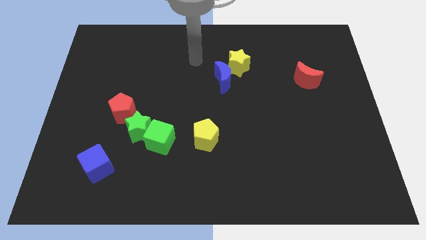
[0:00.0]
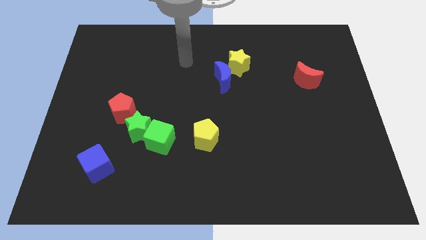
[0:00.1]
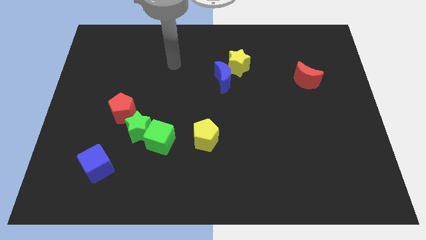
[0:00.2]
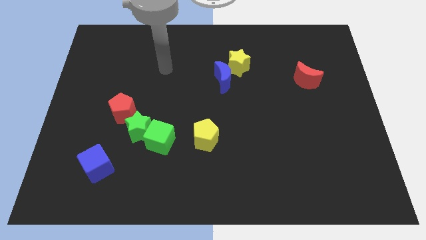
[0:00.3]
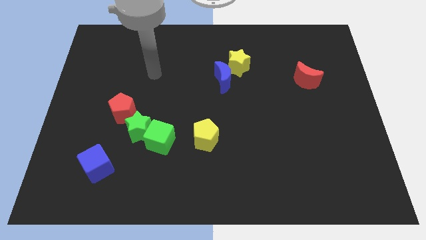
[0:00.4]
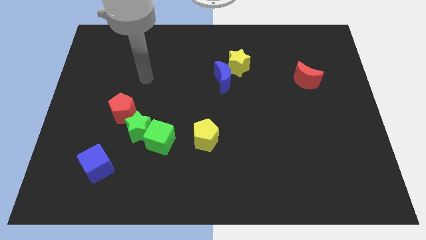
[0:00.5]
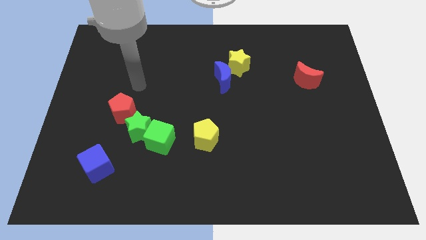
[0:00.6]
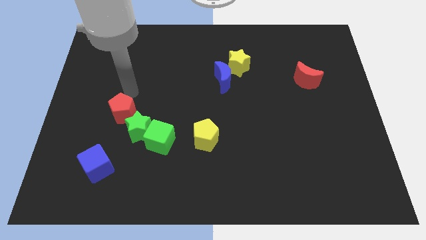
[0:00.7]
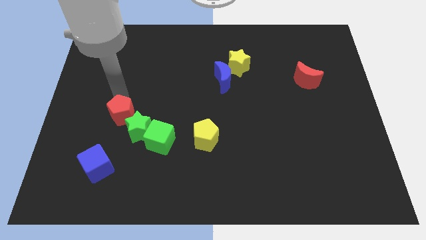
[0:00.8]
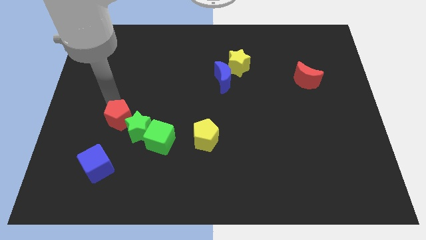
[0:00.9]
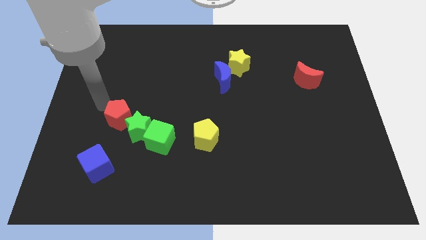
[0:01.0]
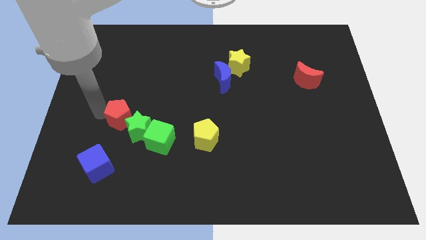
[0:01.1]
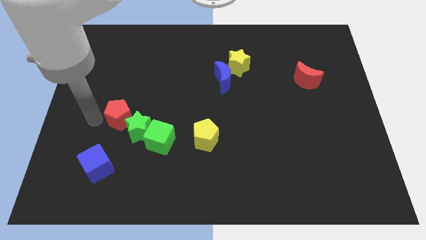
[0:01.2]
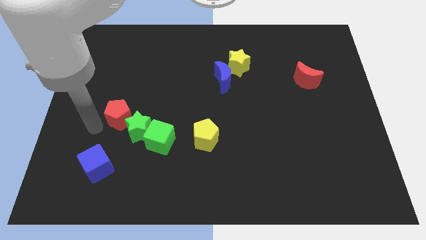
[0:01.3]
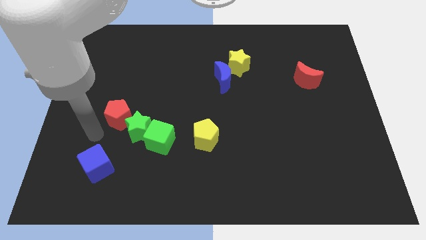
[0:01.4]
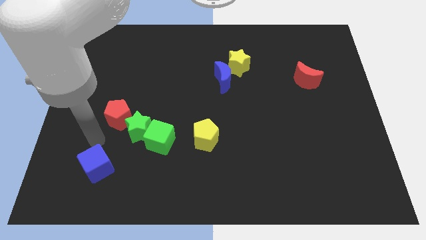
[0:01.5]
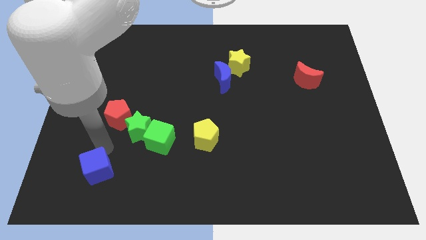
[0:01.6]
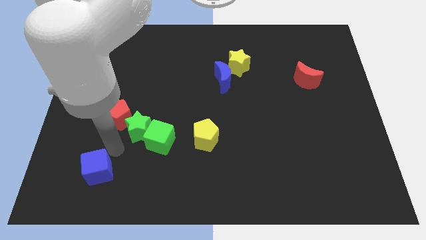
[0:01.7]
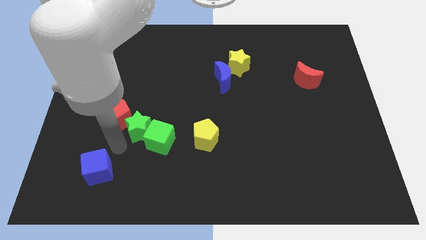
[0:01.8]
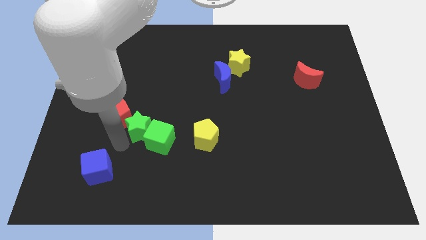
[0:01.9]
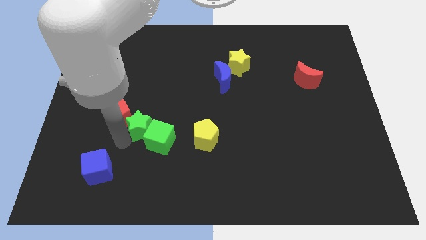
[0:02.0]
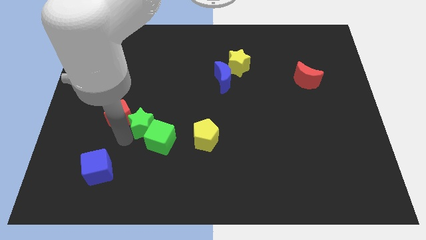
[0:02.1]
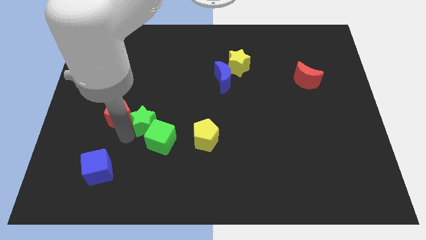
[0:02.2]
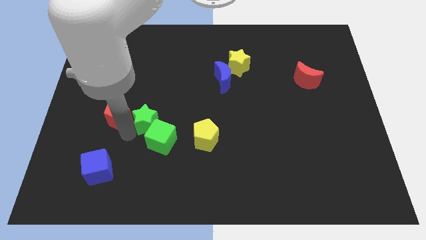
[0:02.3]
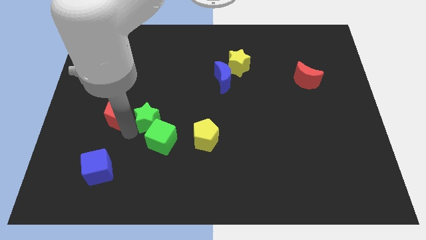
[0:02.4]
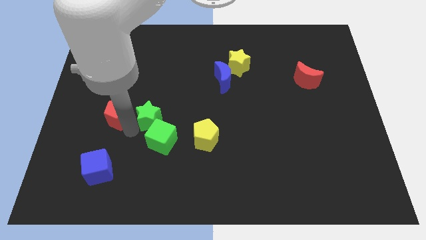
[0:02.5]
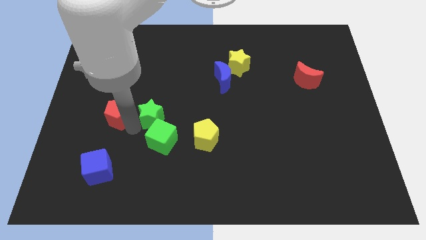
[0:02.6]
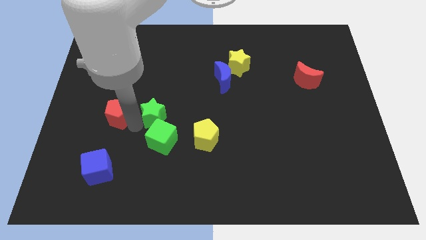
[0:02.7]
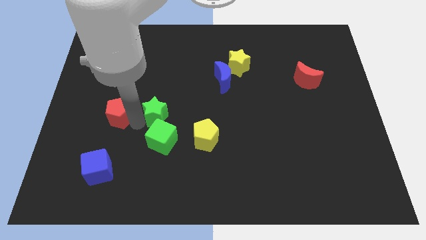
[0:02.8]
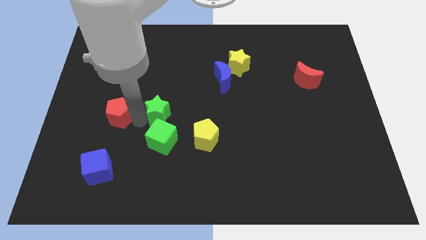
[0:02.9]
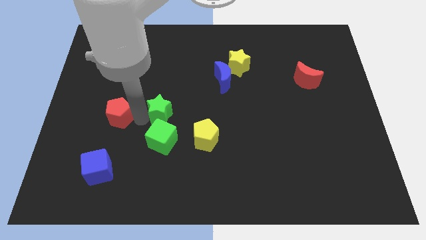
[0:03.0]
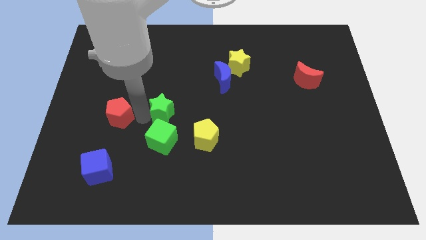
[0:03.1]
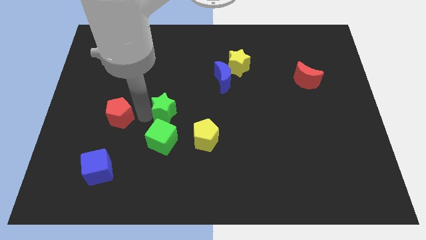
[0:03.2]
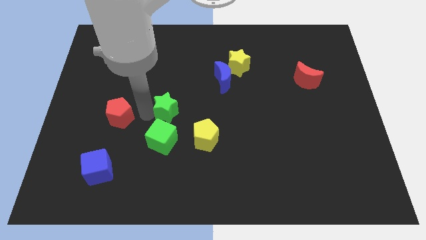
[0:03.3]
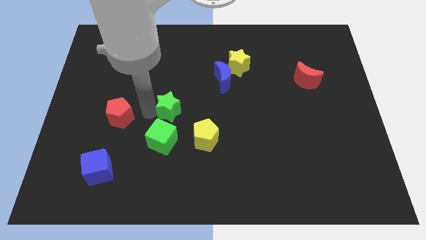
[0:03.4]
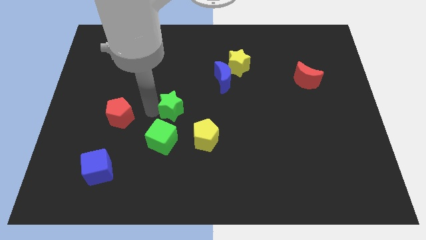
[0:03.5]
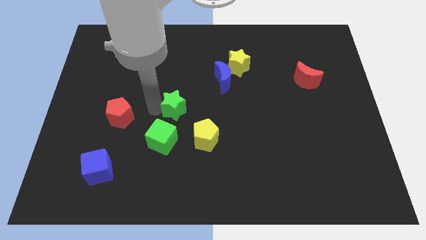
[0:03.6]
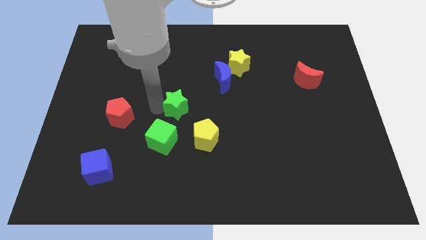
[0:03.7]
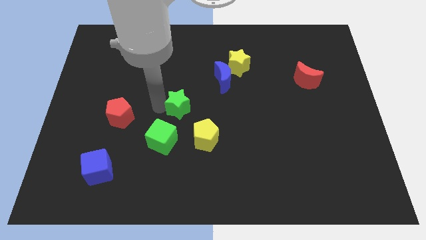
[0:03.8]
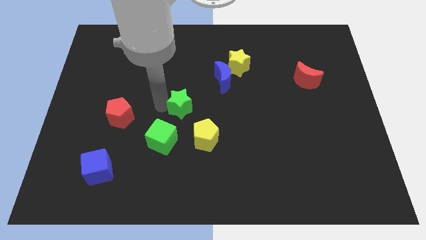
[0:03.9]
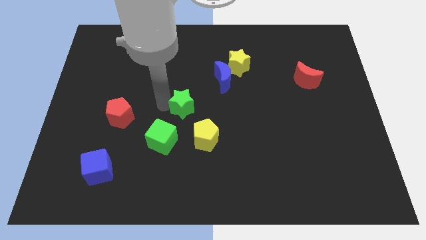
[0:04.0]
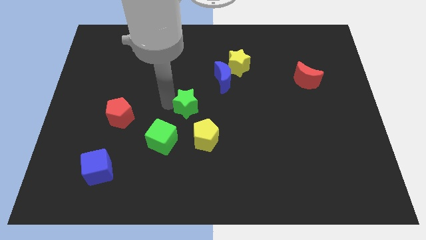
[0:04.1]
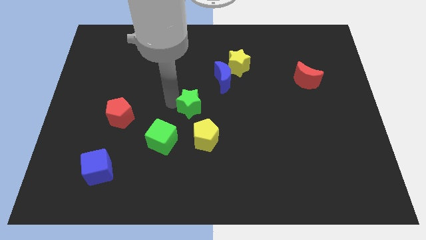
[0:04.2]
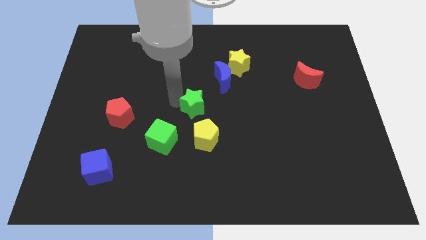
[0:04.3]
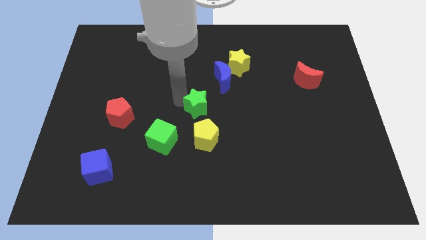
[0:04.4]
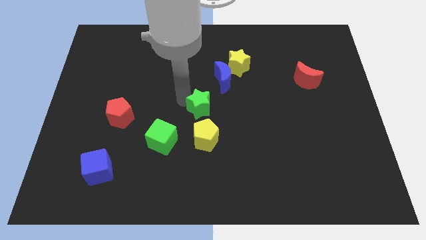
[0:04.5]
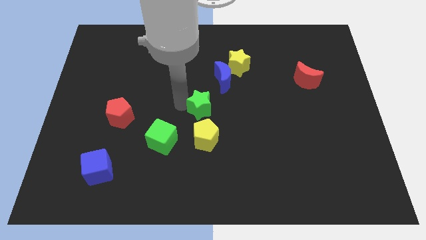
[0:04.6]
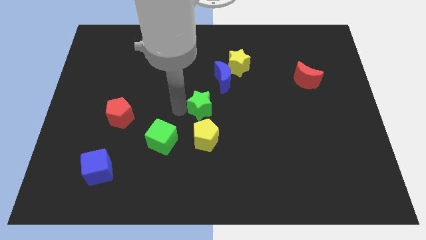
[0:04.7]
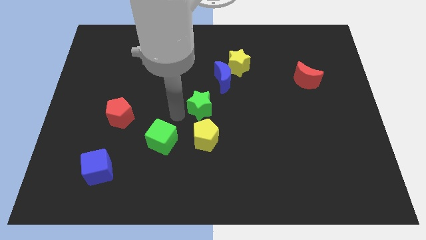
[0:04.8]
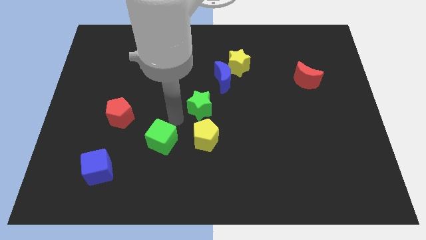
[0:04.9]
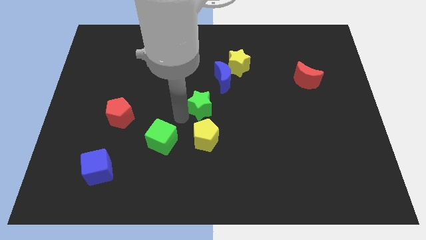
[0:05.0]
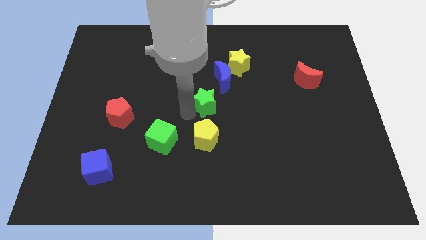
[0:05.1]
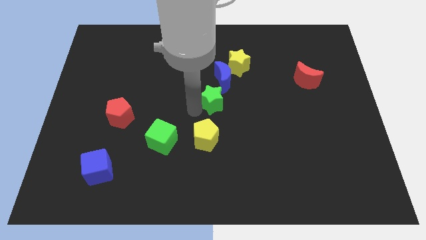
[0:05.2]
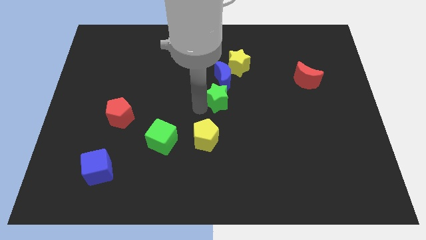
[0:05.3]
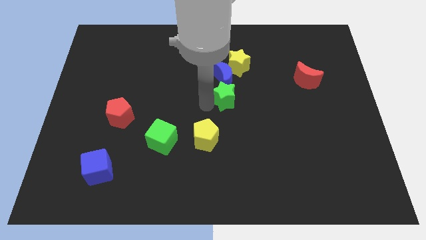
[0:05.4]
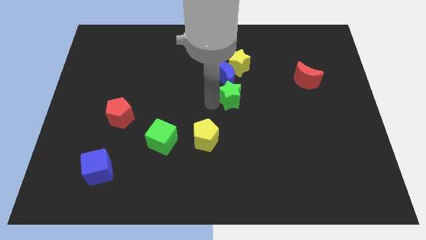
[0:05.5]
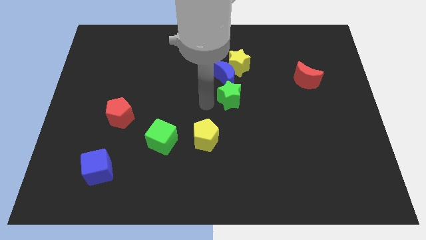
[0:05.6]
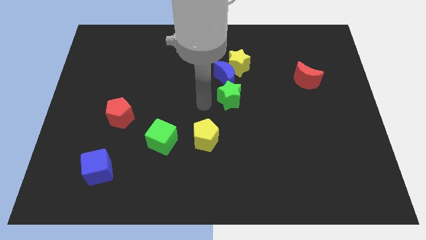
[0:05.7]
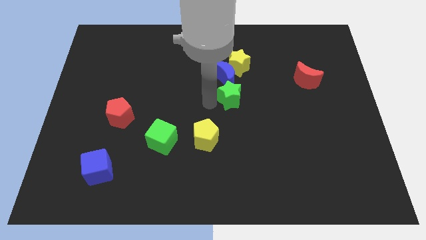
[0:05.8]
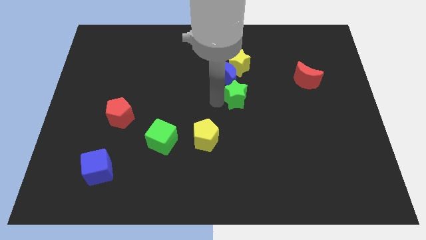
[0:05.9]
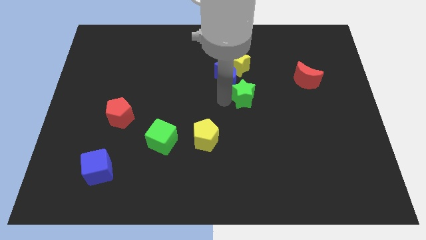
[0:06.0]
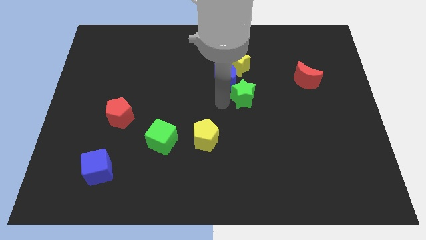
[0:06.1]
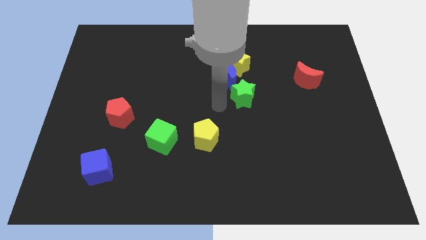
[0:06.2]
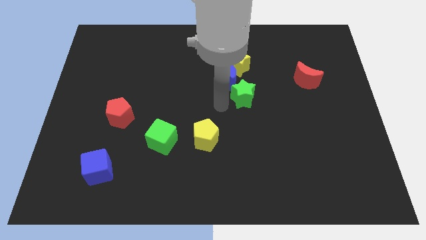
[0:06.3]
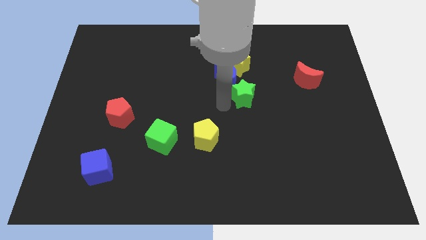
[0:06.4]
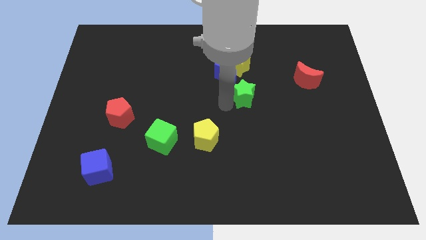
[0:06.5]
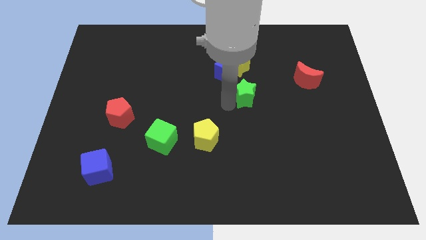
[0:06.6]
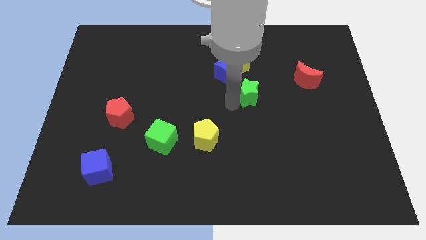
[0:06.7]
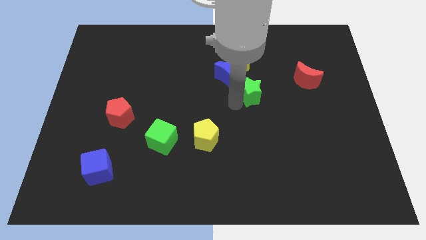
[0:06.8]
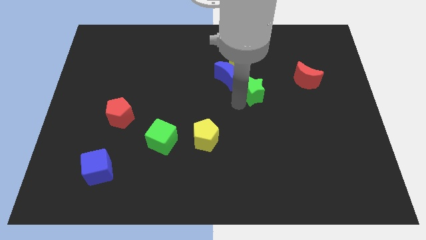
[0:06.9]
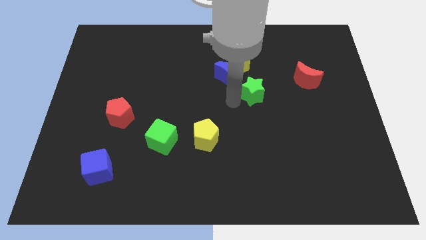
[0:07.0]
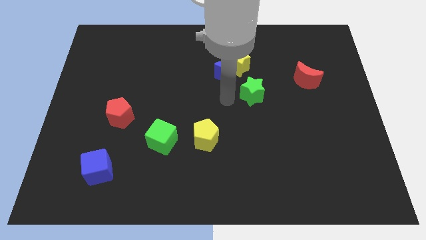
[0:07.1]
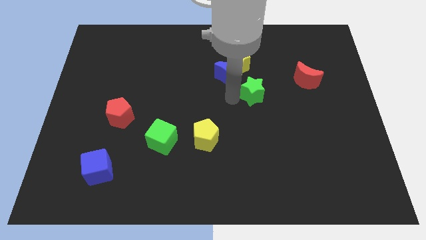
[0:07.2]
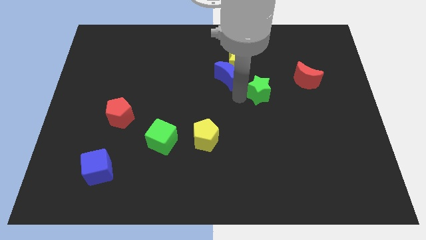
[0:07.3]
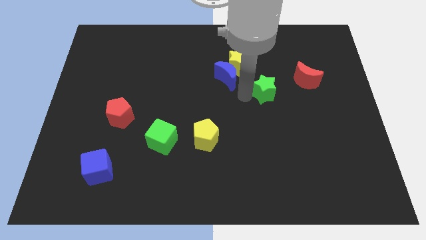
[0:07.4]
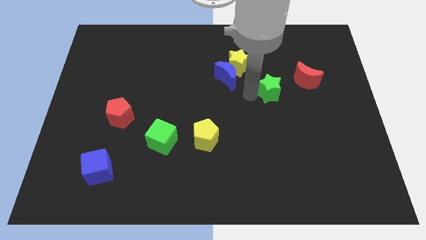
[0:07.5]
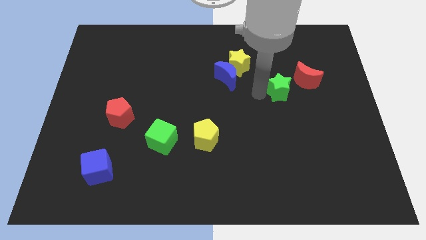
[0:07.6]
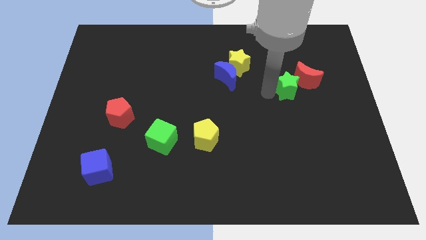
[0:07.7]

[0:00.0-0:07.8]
move the green star towards the red moon
